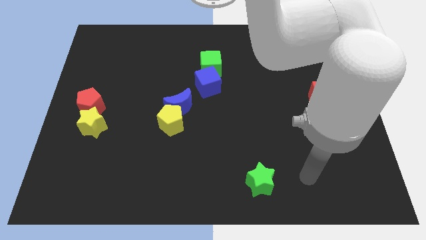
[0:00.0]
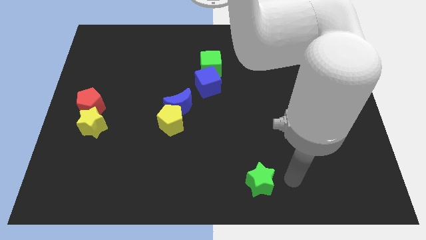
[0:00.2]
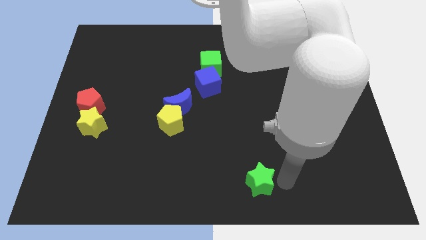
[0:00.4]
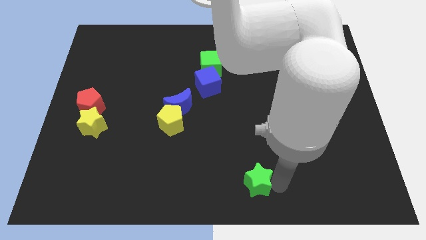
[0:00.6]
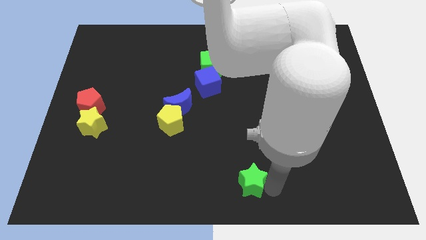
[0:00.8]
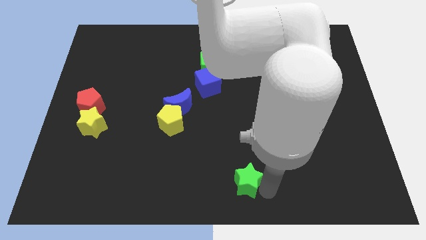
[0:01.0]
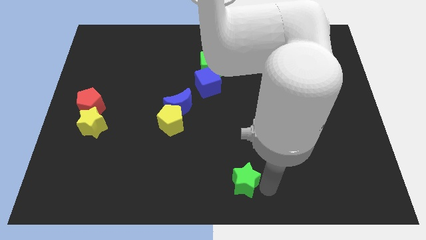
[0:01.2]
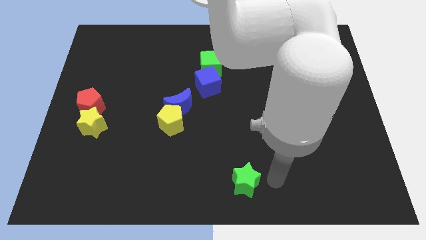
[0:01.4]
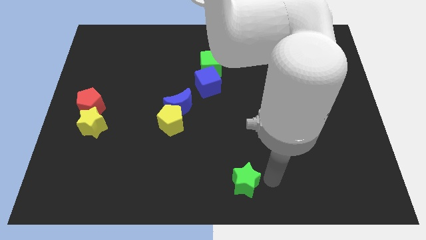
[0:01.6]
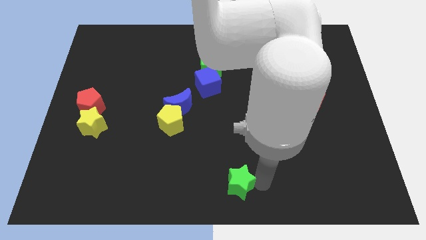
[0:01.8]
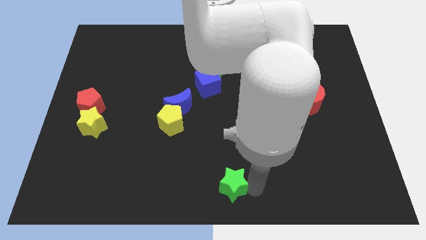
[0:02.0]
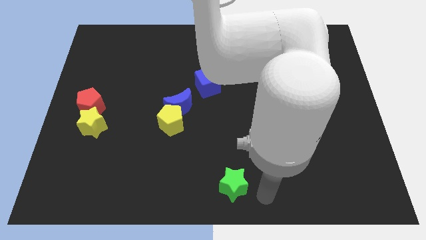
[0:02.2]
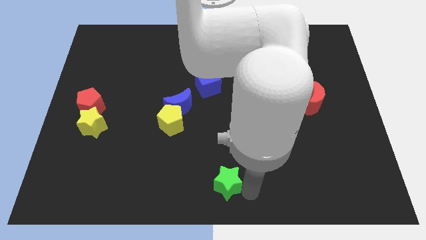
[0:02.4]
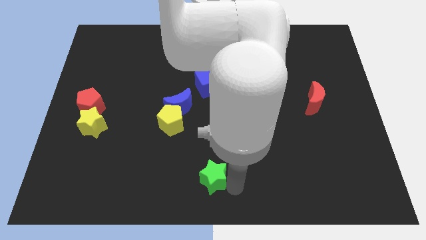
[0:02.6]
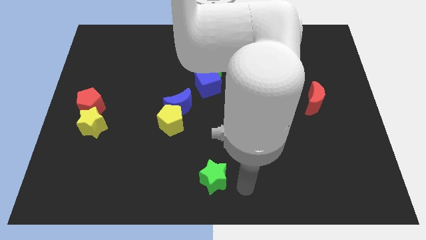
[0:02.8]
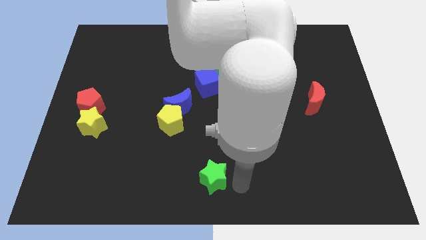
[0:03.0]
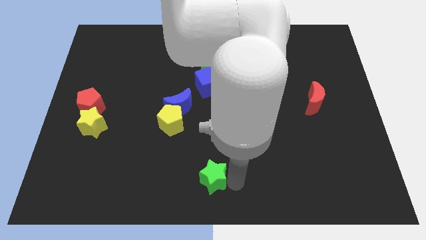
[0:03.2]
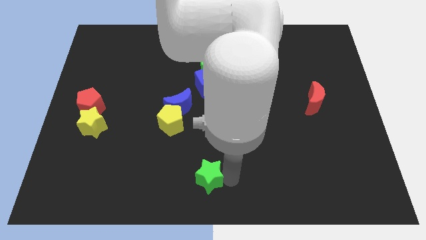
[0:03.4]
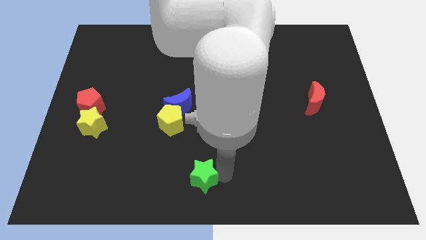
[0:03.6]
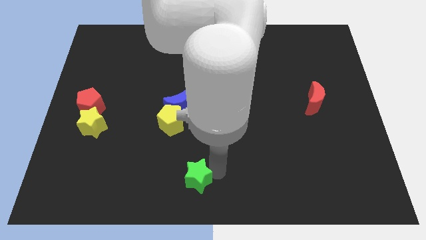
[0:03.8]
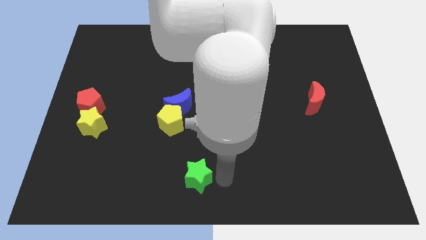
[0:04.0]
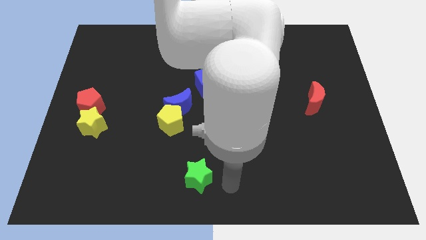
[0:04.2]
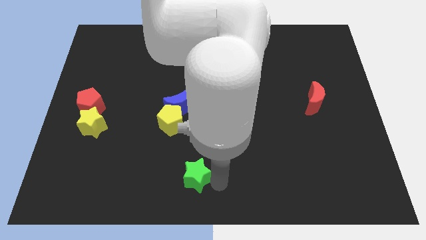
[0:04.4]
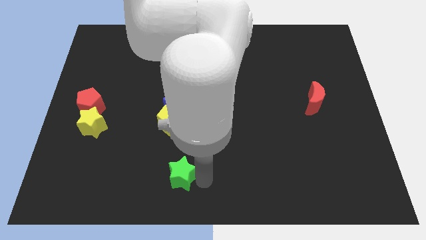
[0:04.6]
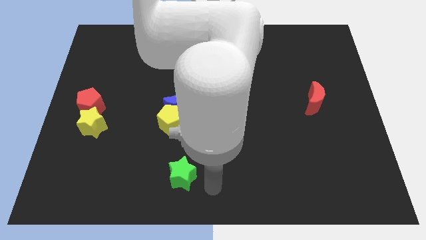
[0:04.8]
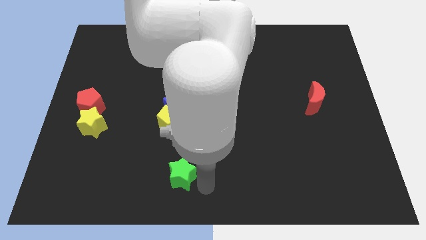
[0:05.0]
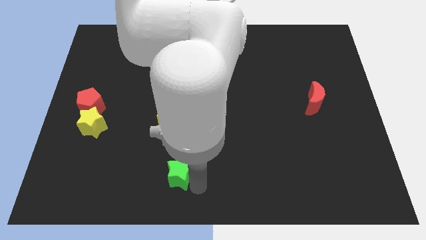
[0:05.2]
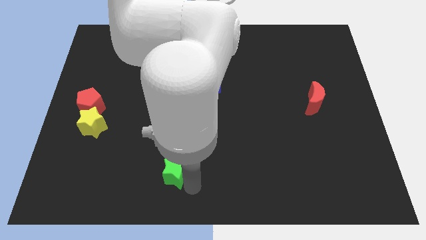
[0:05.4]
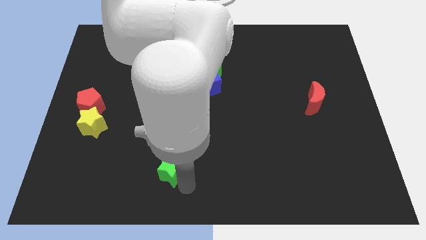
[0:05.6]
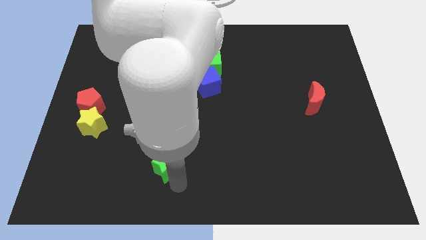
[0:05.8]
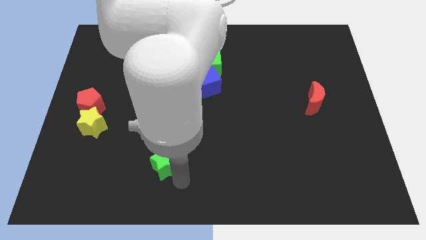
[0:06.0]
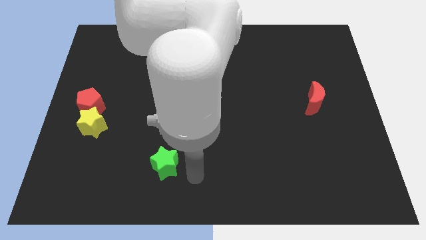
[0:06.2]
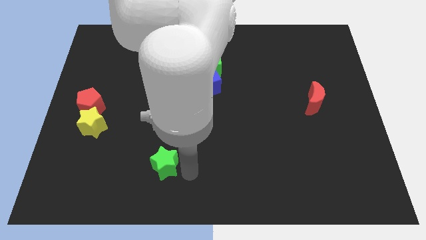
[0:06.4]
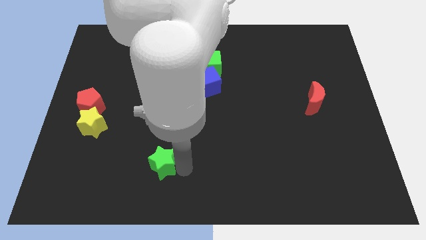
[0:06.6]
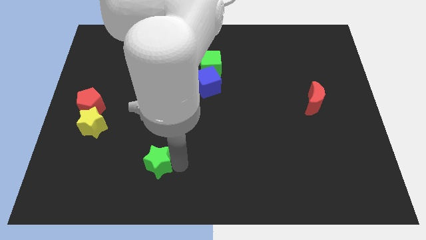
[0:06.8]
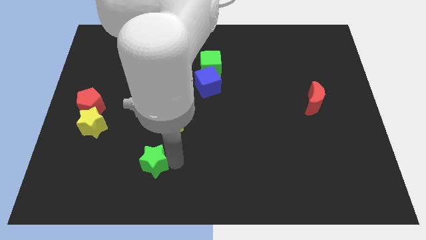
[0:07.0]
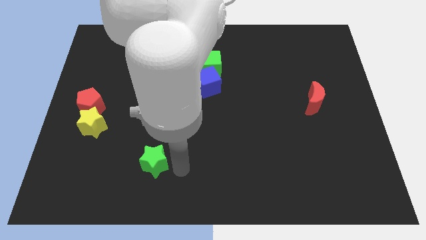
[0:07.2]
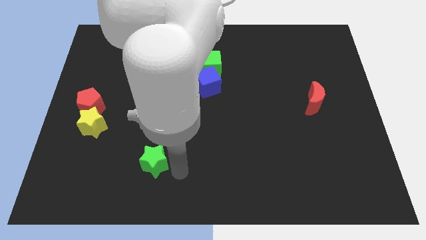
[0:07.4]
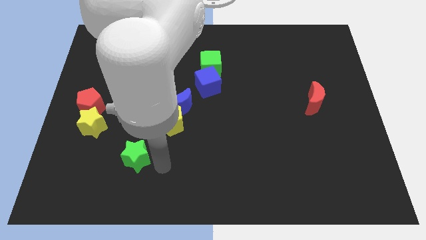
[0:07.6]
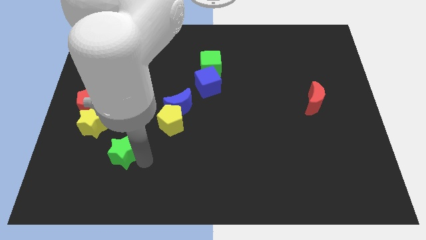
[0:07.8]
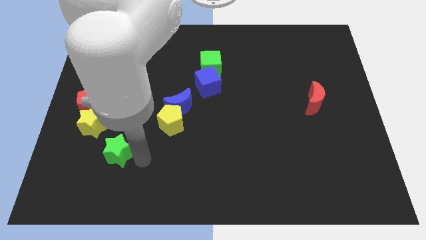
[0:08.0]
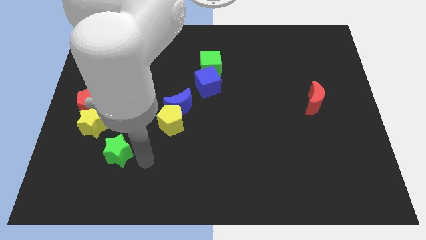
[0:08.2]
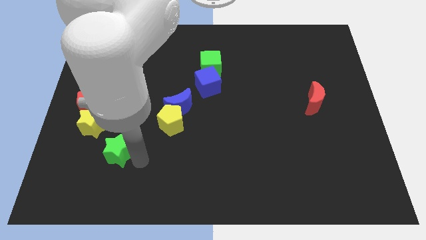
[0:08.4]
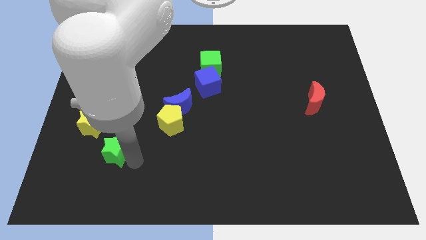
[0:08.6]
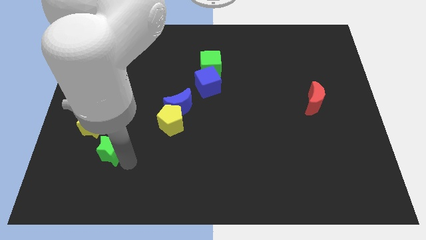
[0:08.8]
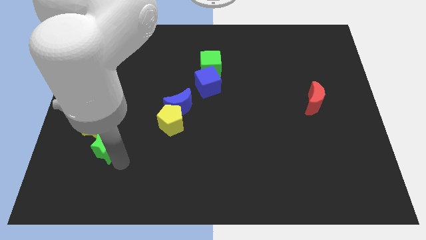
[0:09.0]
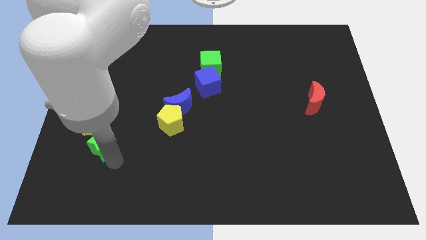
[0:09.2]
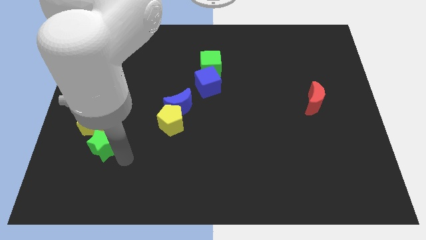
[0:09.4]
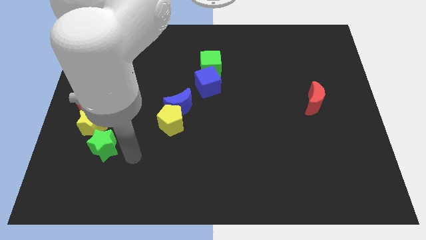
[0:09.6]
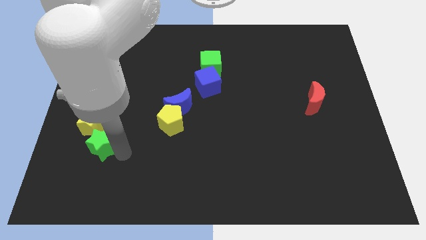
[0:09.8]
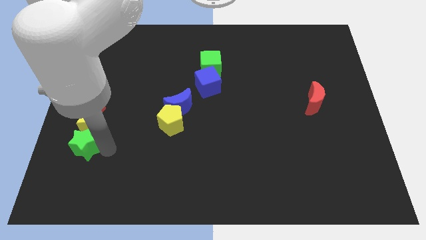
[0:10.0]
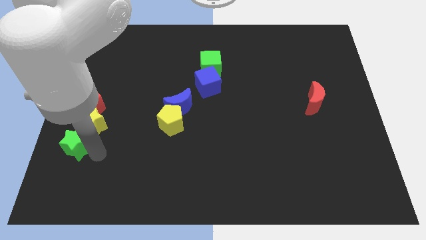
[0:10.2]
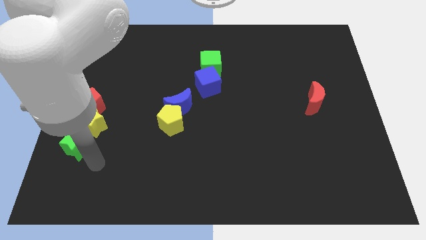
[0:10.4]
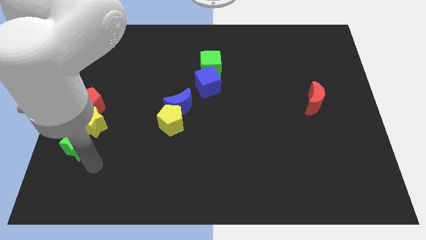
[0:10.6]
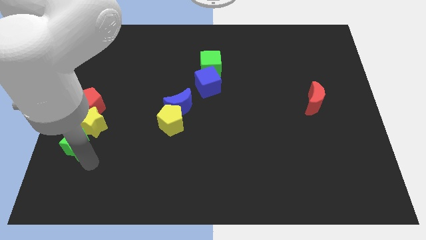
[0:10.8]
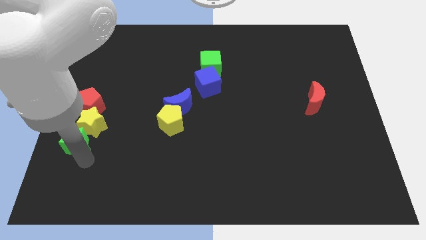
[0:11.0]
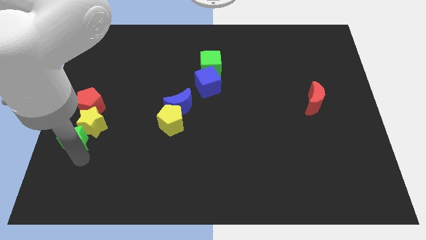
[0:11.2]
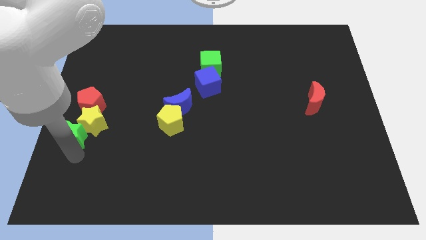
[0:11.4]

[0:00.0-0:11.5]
move the green star to the center left
